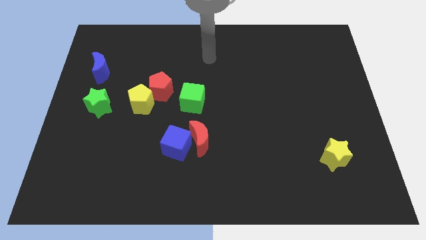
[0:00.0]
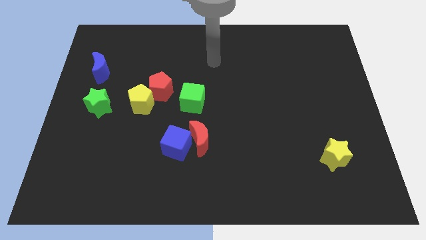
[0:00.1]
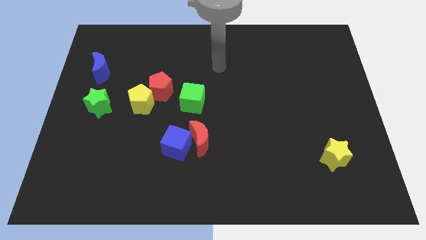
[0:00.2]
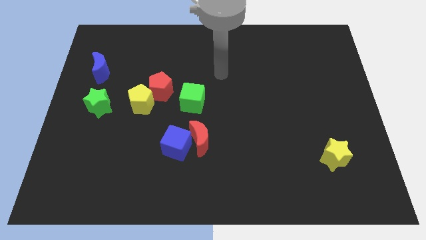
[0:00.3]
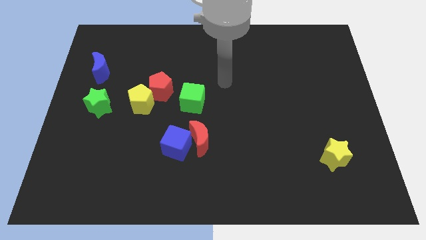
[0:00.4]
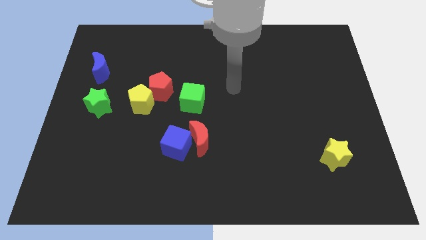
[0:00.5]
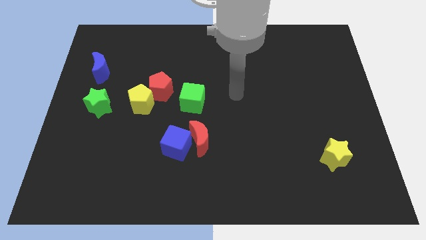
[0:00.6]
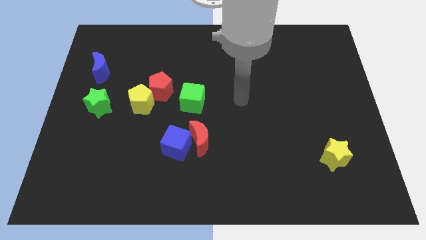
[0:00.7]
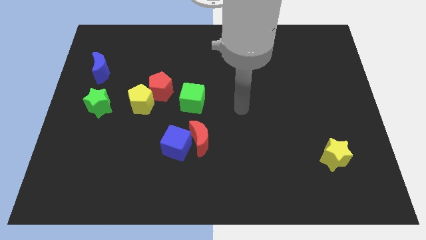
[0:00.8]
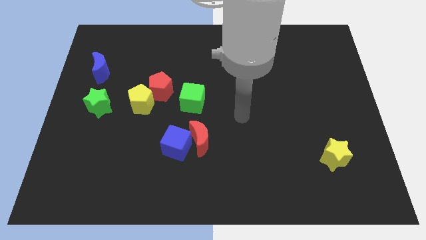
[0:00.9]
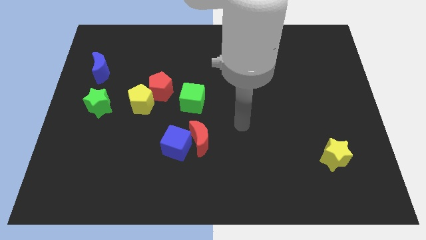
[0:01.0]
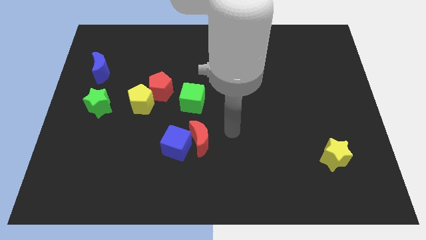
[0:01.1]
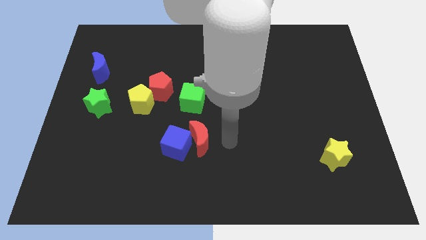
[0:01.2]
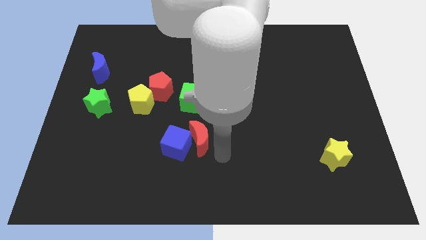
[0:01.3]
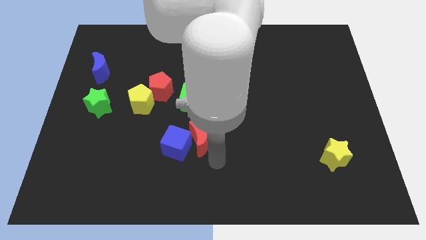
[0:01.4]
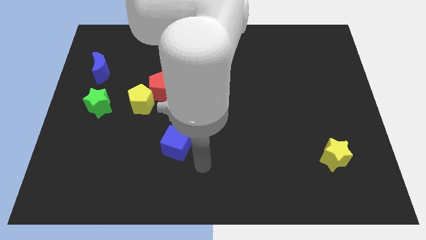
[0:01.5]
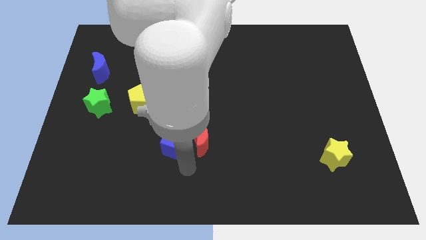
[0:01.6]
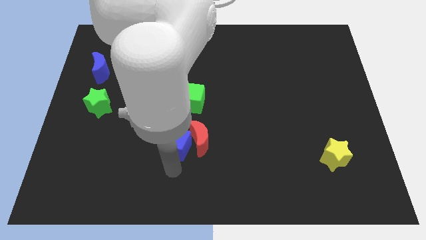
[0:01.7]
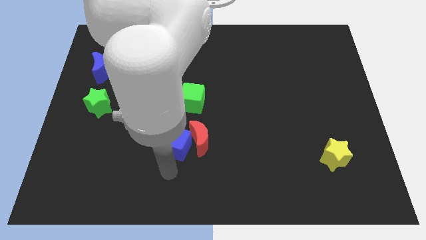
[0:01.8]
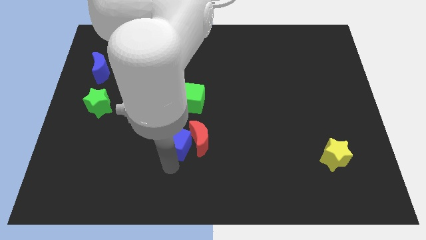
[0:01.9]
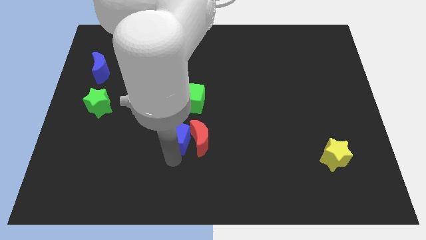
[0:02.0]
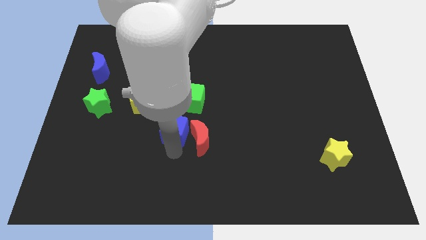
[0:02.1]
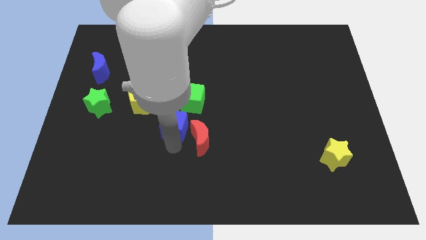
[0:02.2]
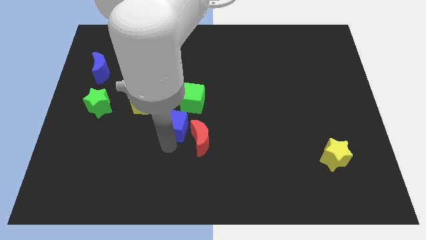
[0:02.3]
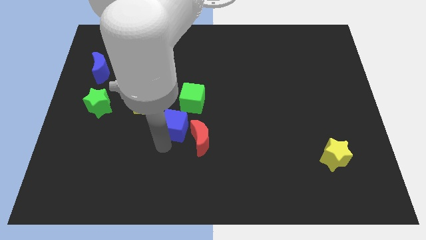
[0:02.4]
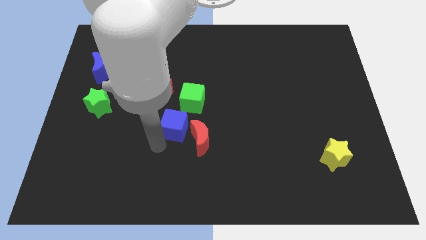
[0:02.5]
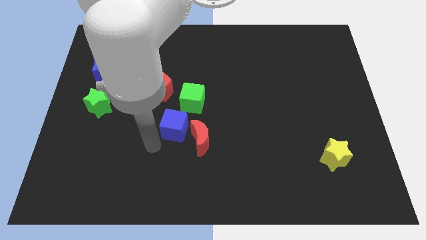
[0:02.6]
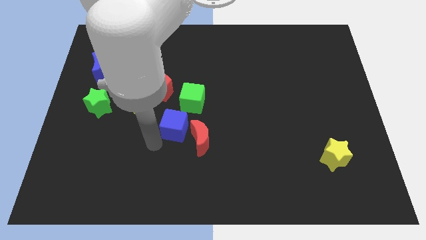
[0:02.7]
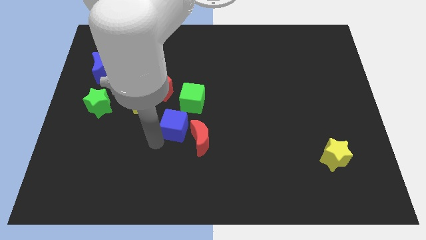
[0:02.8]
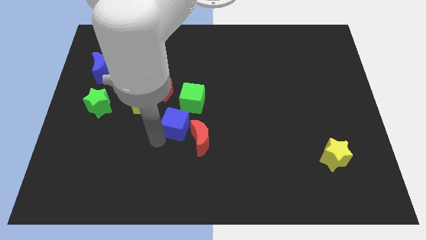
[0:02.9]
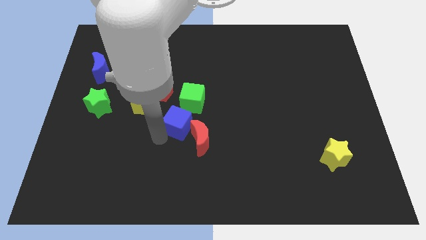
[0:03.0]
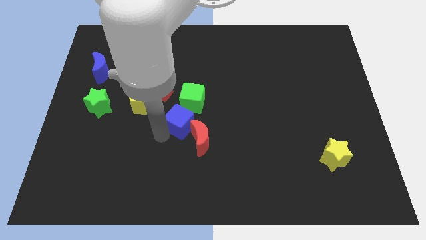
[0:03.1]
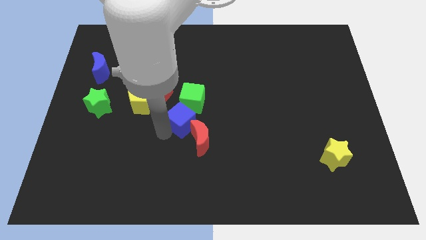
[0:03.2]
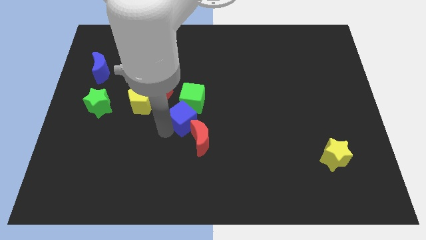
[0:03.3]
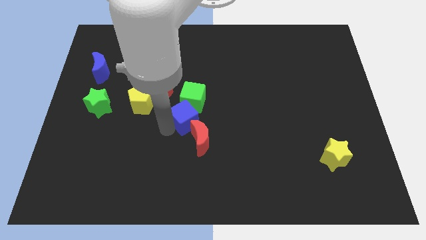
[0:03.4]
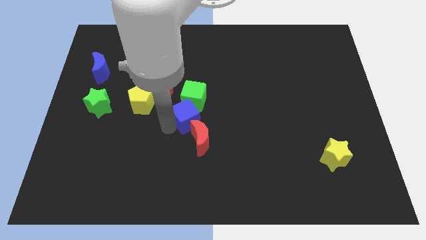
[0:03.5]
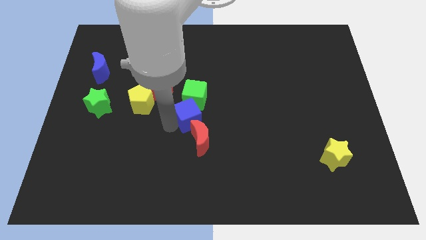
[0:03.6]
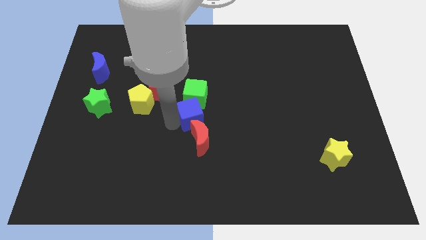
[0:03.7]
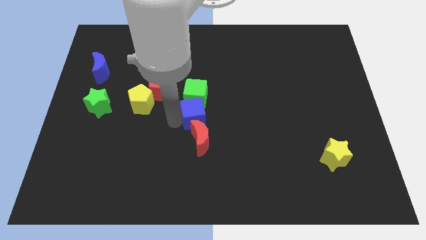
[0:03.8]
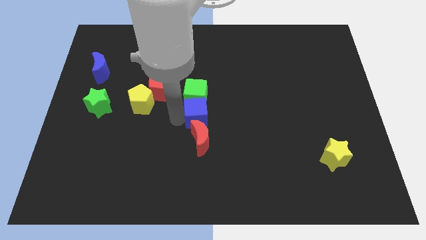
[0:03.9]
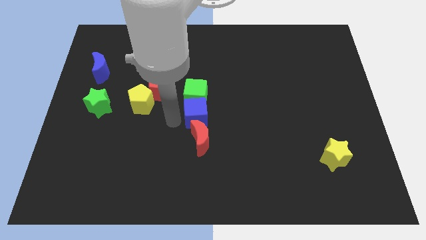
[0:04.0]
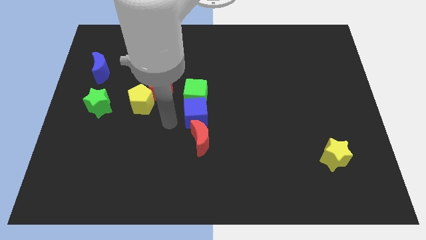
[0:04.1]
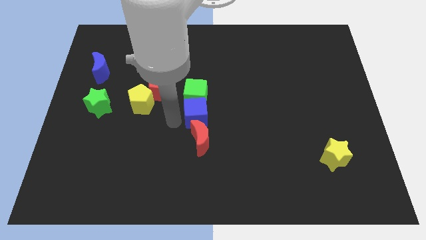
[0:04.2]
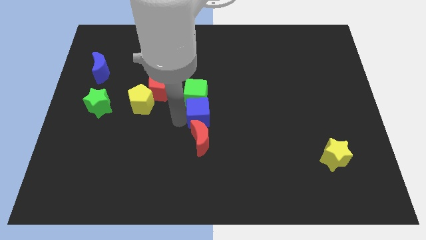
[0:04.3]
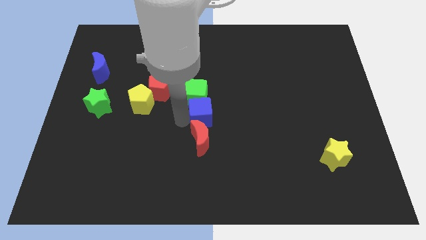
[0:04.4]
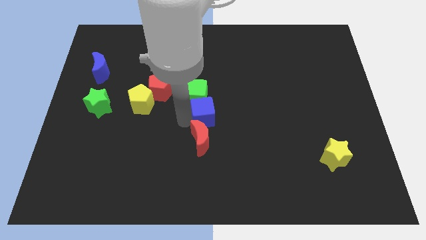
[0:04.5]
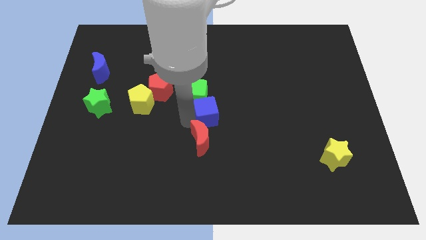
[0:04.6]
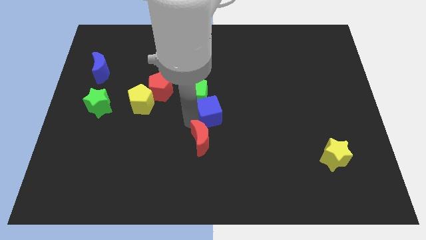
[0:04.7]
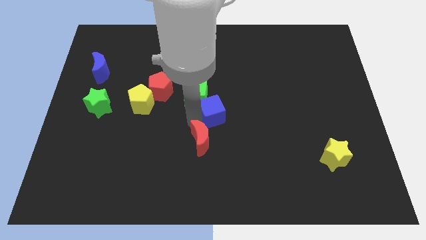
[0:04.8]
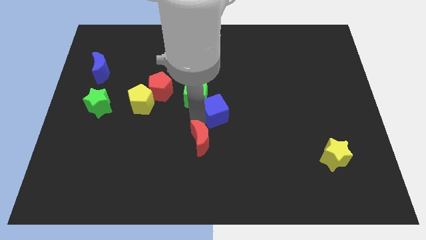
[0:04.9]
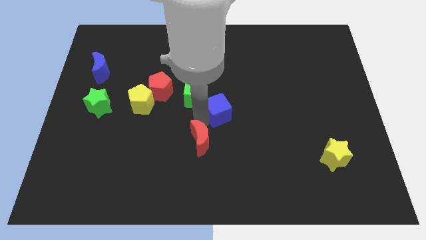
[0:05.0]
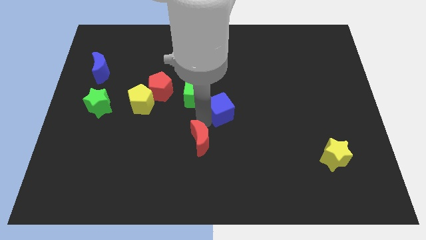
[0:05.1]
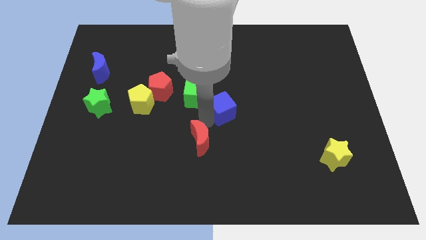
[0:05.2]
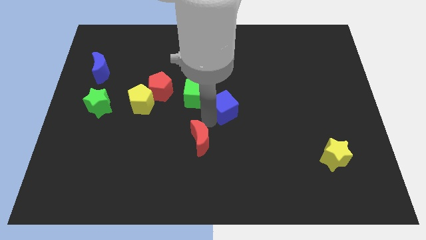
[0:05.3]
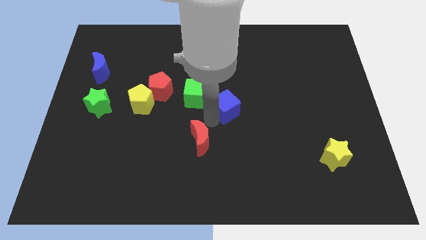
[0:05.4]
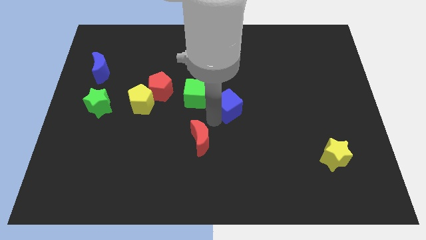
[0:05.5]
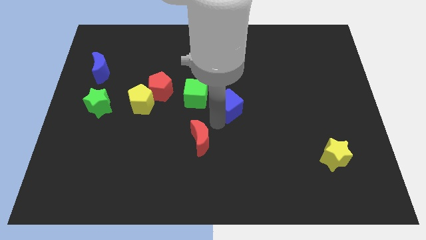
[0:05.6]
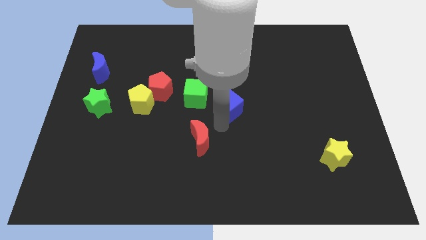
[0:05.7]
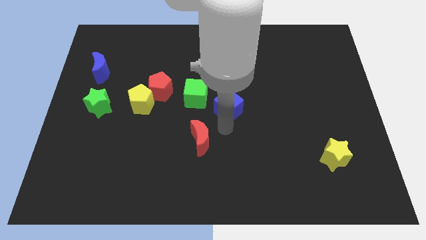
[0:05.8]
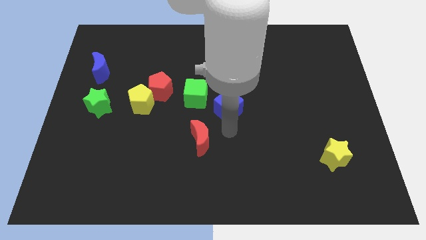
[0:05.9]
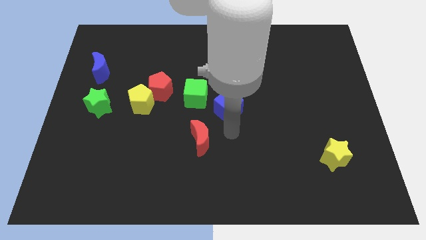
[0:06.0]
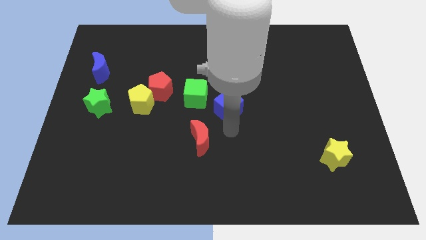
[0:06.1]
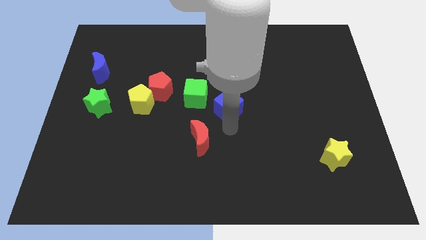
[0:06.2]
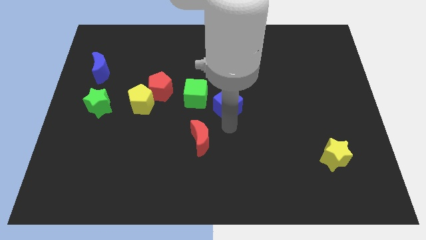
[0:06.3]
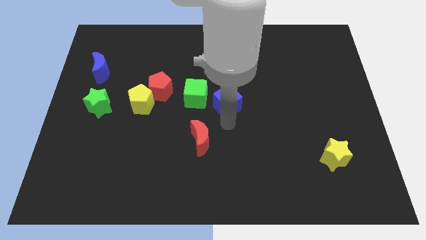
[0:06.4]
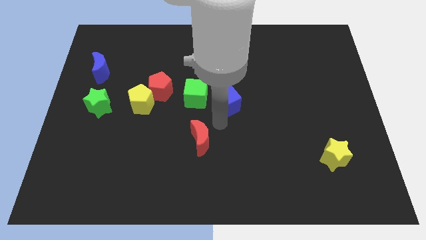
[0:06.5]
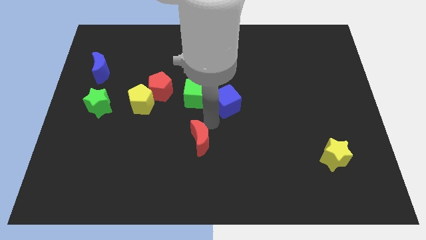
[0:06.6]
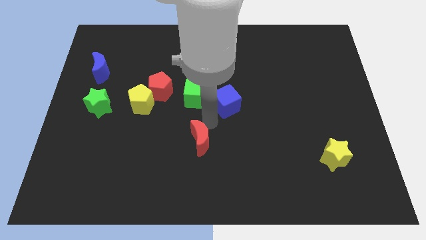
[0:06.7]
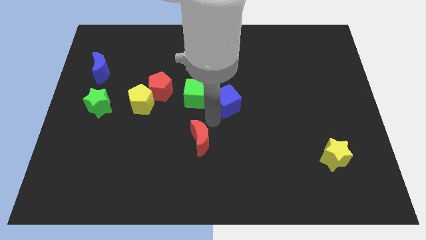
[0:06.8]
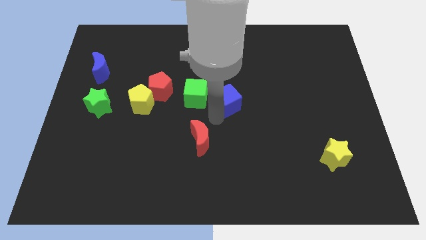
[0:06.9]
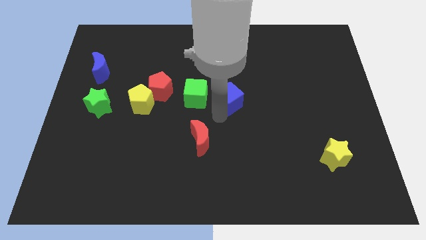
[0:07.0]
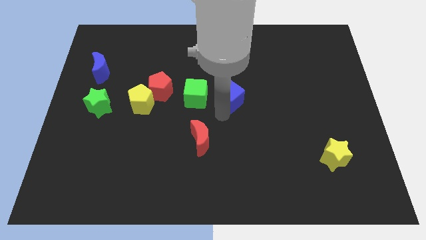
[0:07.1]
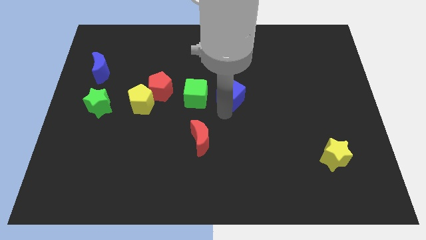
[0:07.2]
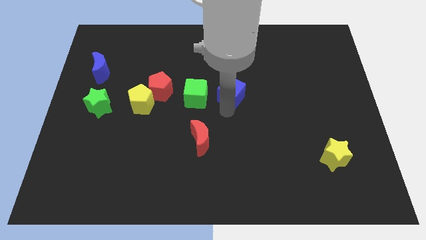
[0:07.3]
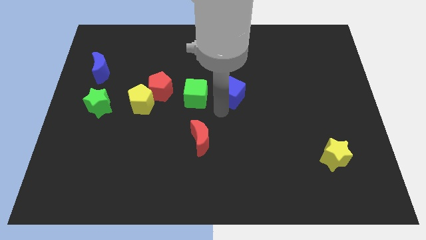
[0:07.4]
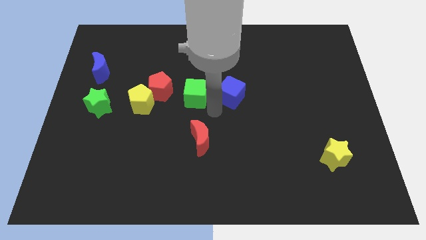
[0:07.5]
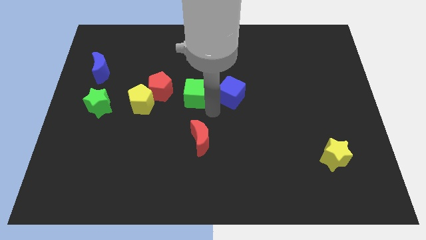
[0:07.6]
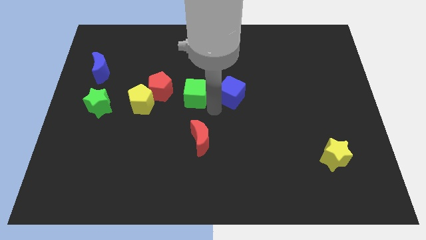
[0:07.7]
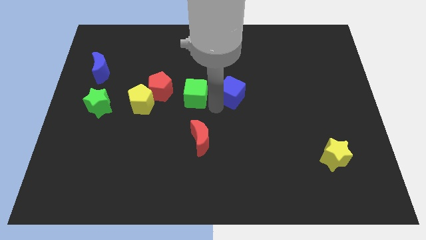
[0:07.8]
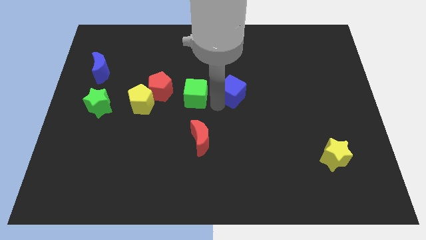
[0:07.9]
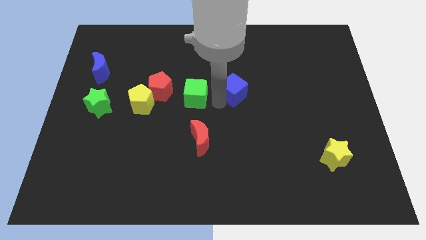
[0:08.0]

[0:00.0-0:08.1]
move the blue cube diagonally upwards and to the right

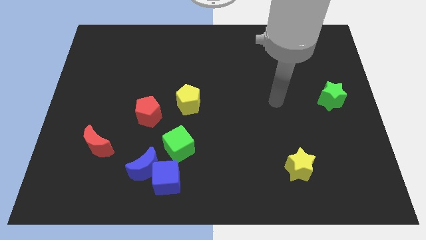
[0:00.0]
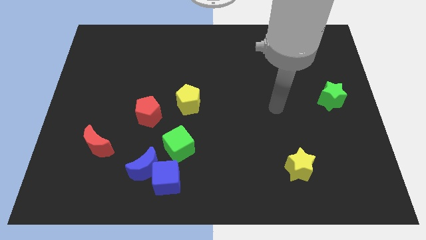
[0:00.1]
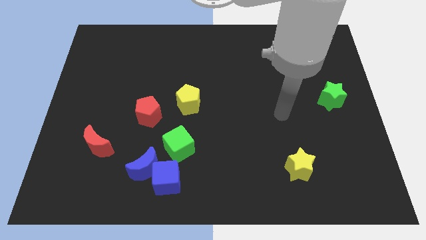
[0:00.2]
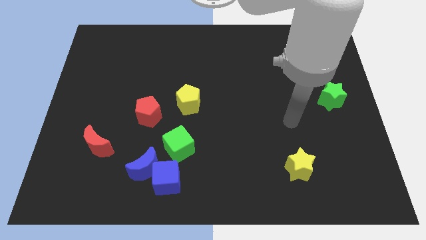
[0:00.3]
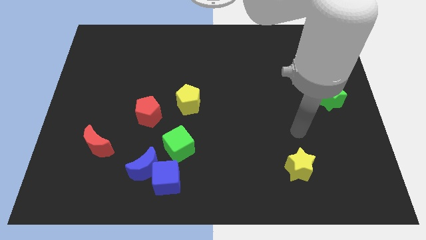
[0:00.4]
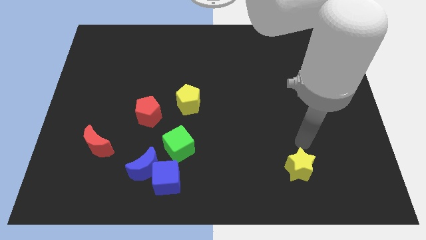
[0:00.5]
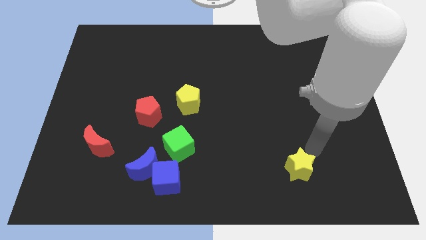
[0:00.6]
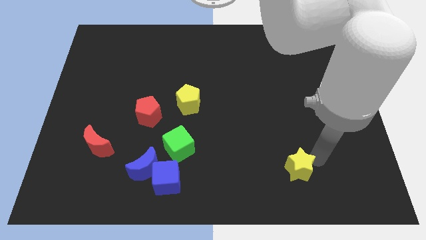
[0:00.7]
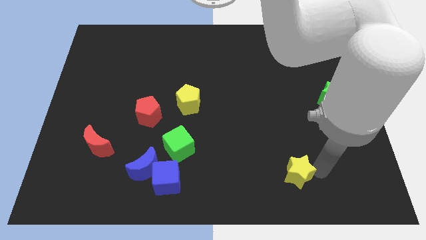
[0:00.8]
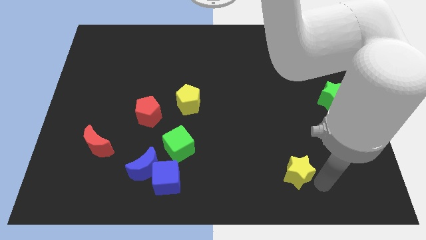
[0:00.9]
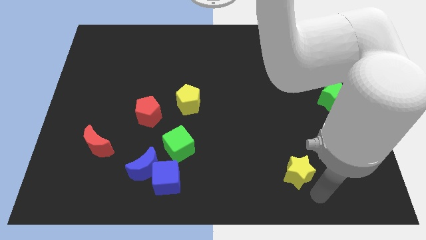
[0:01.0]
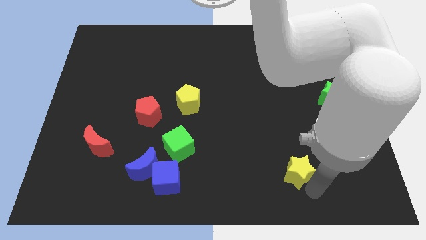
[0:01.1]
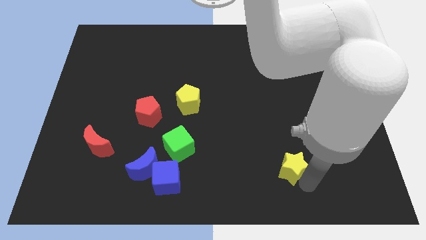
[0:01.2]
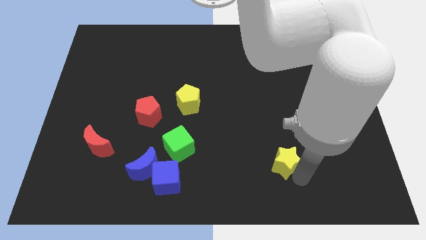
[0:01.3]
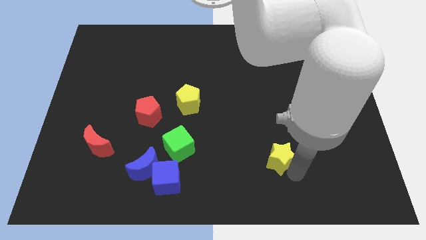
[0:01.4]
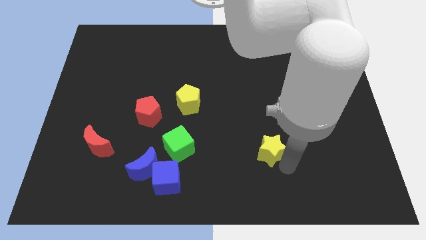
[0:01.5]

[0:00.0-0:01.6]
move the yellow star a little upwards and left
